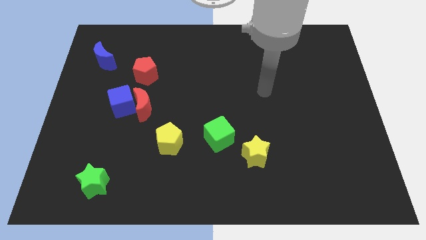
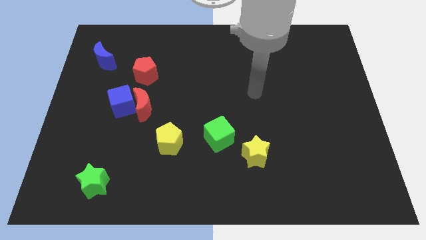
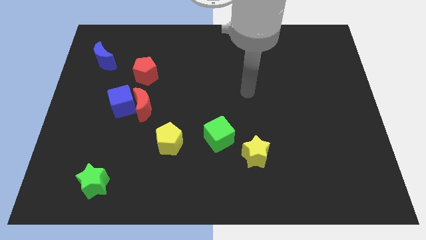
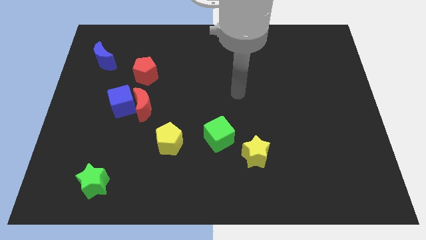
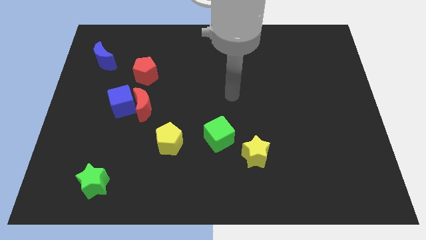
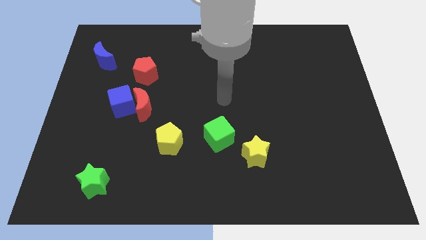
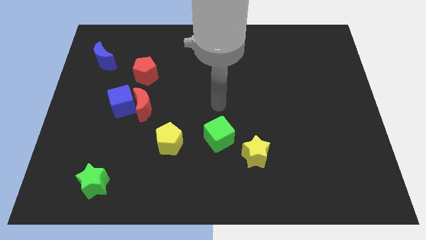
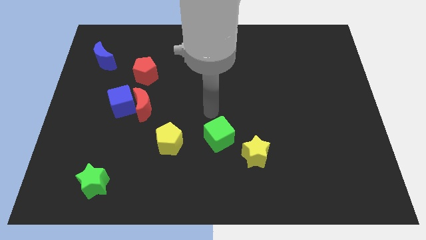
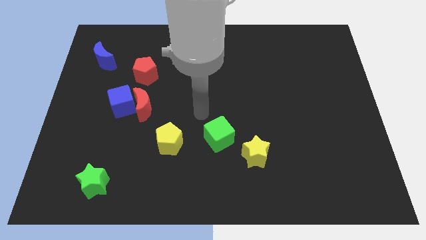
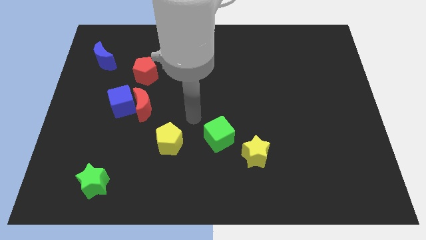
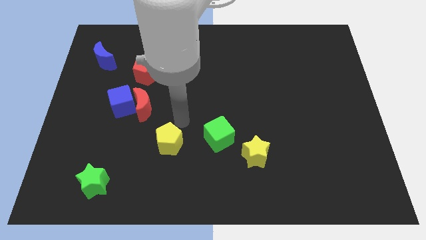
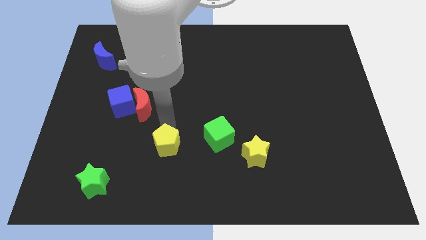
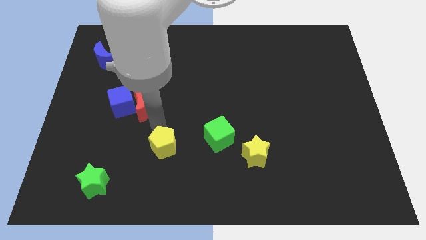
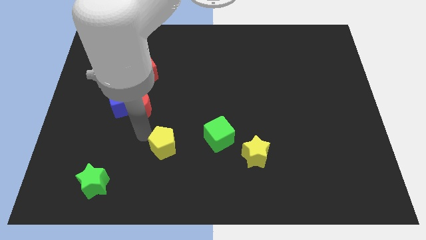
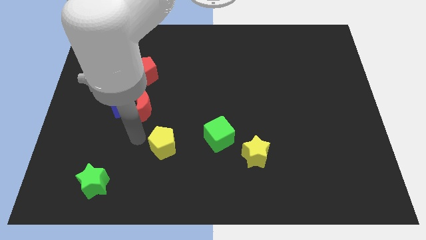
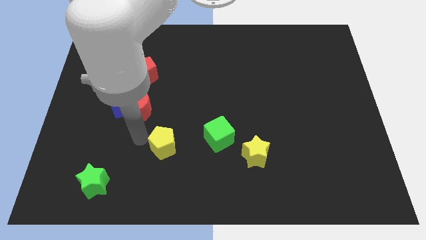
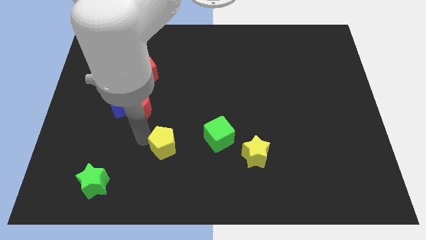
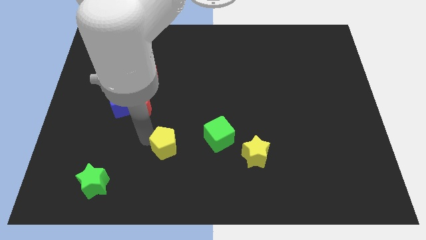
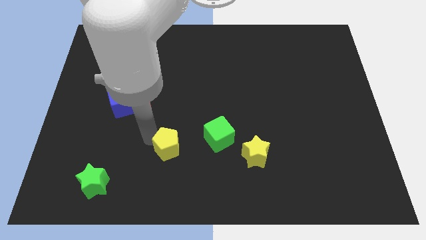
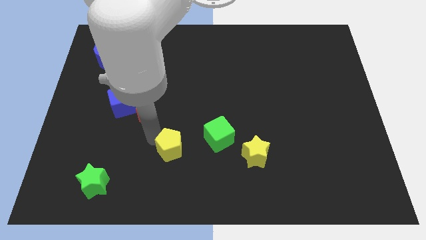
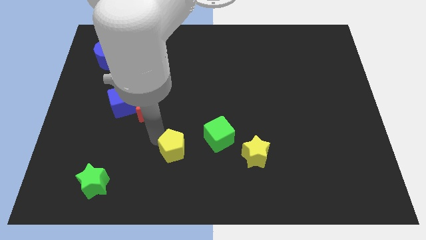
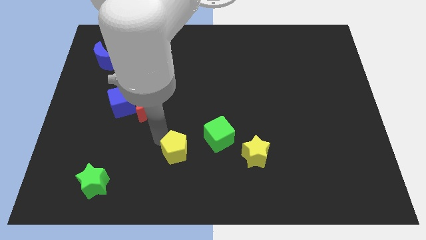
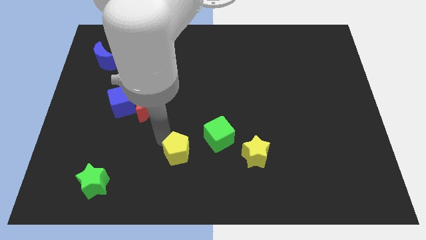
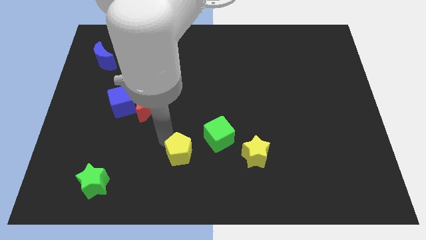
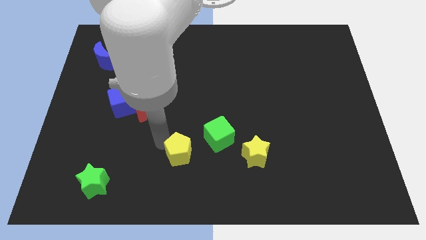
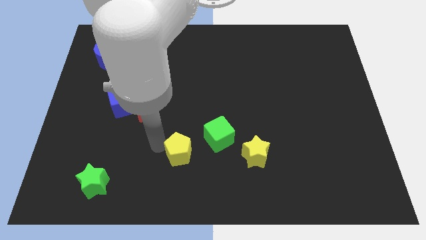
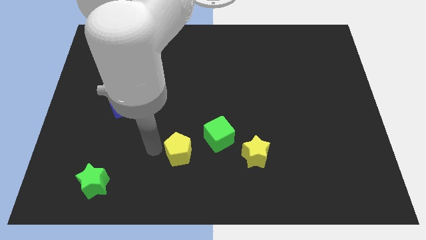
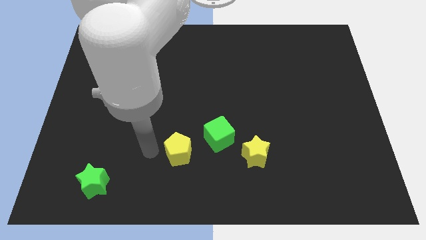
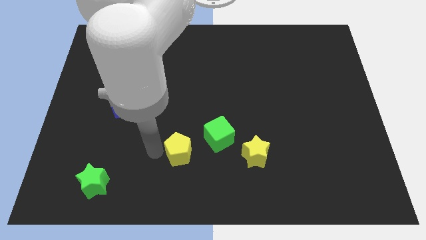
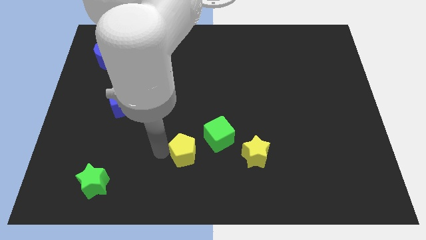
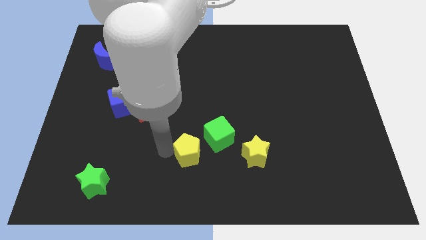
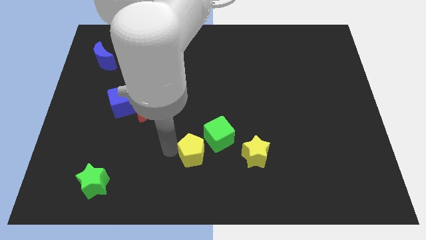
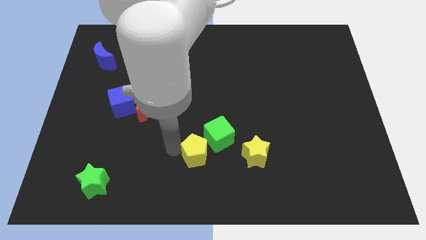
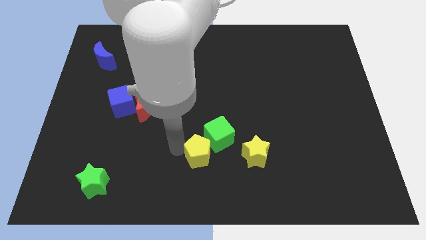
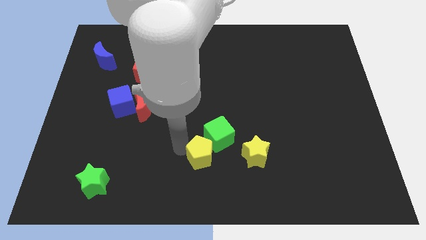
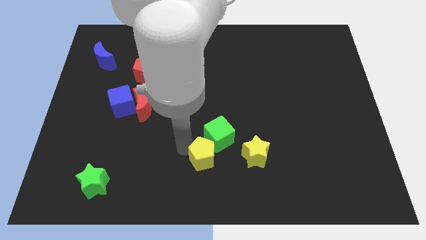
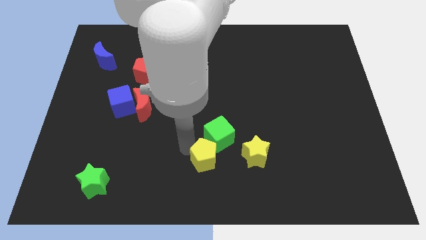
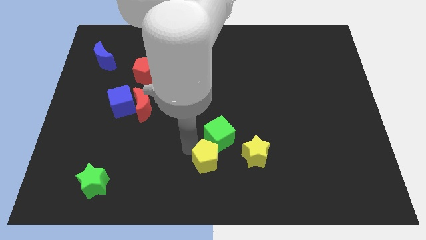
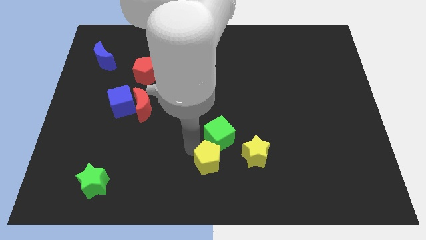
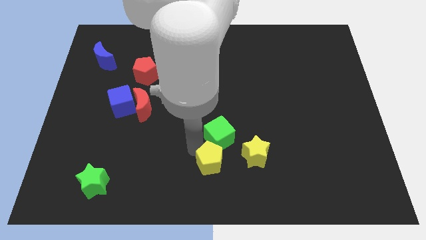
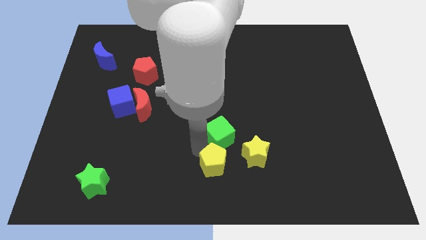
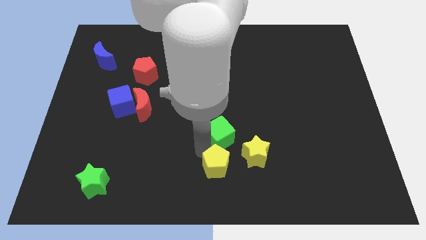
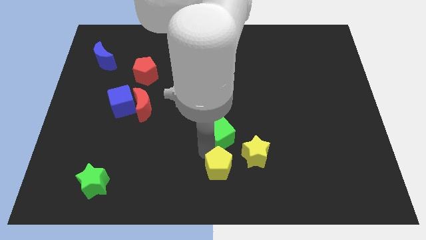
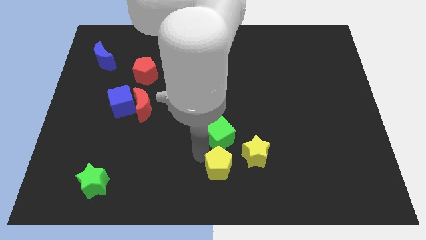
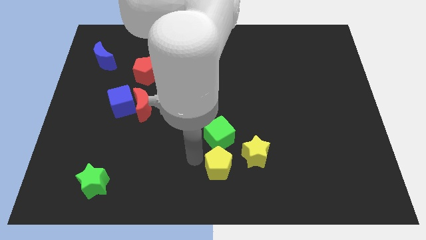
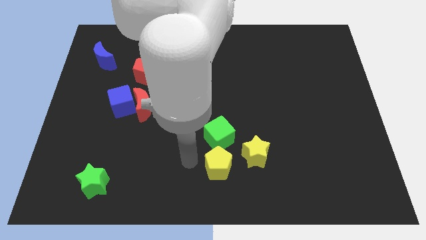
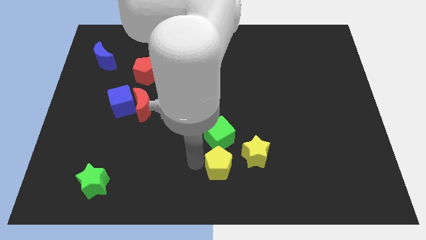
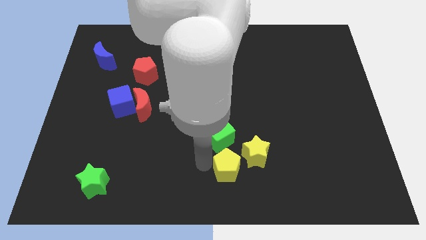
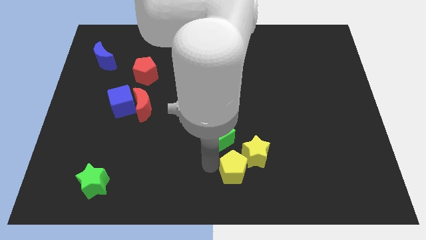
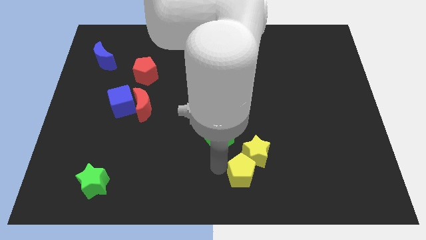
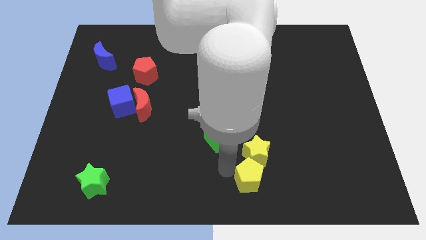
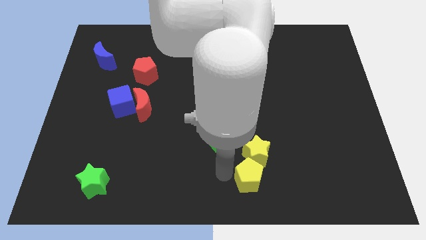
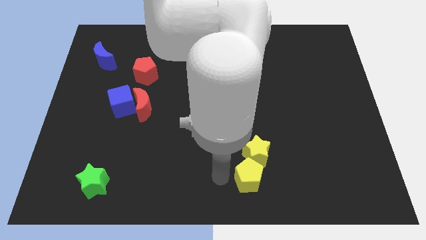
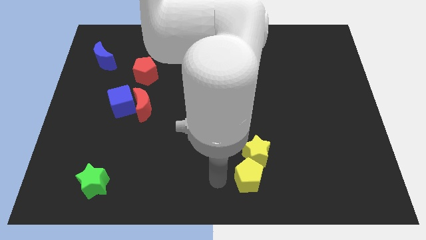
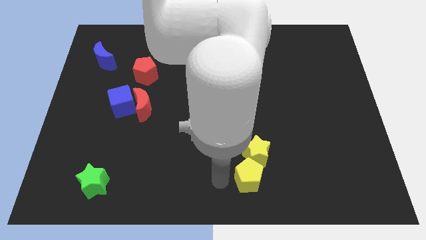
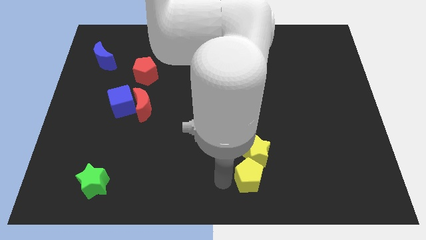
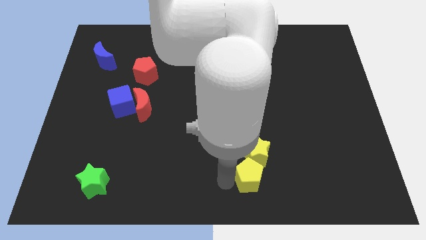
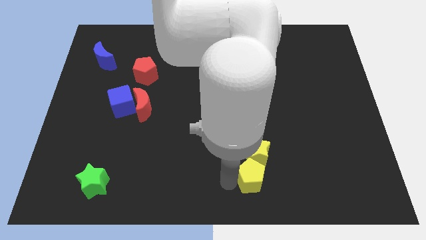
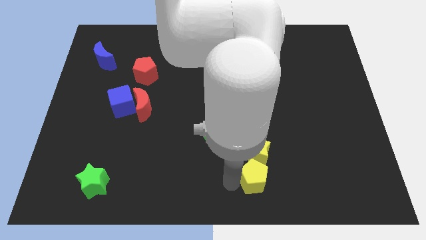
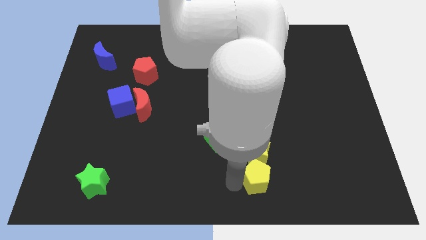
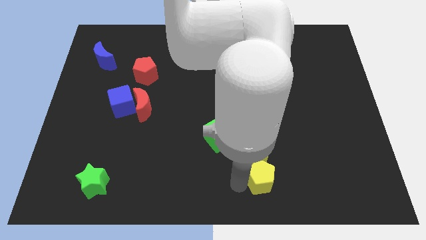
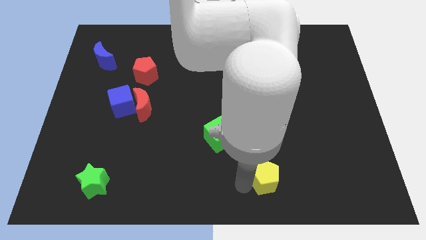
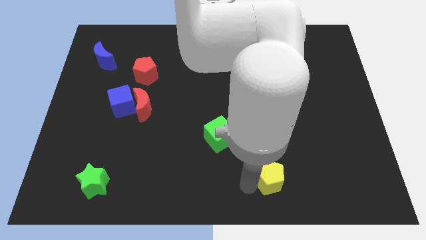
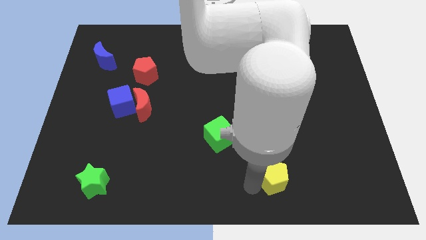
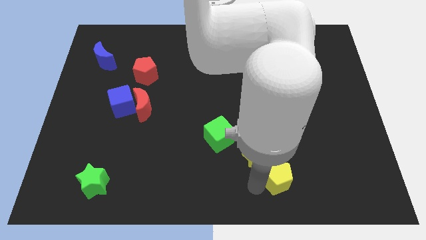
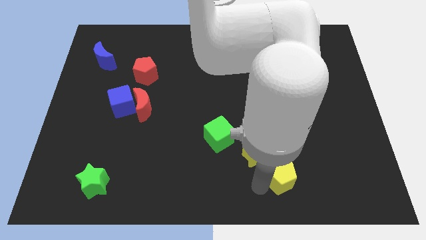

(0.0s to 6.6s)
slide the yellow pentagon right

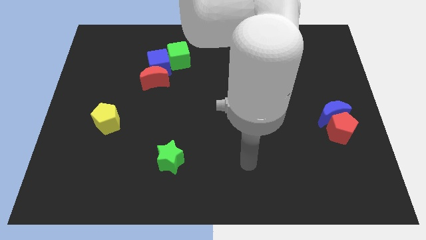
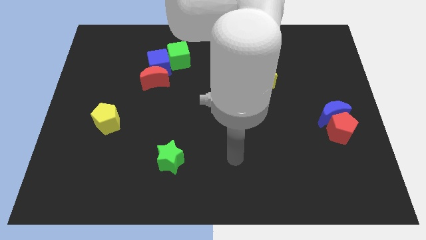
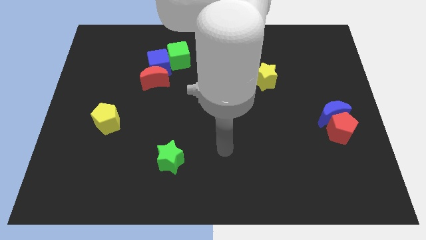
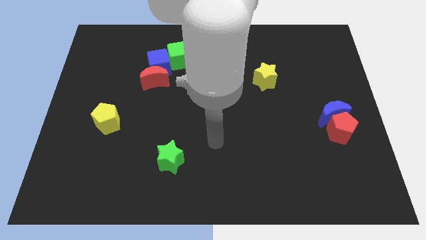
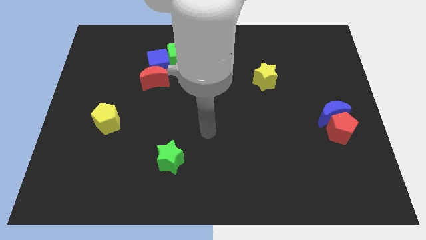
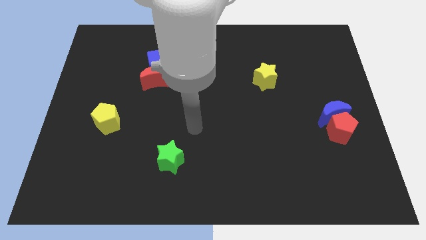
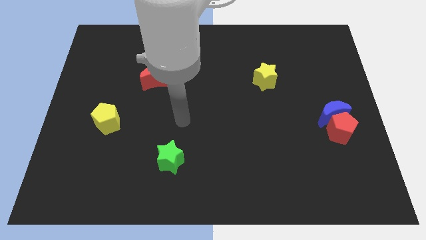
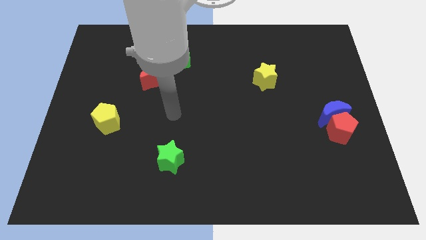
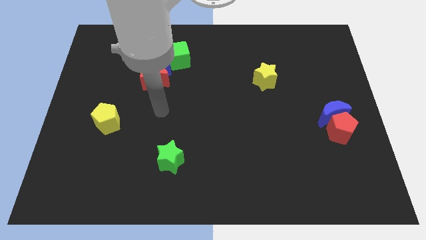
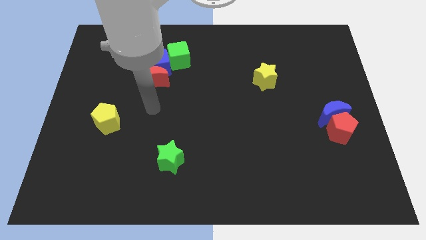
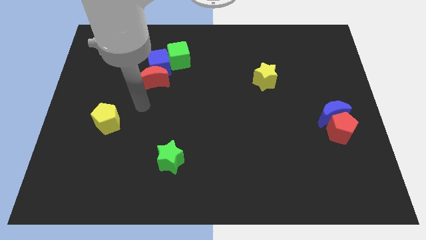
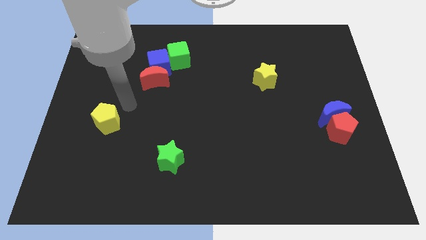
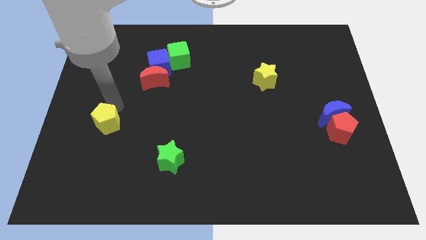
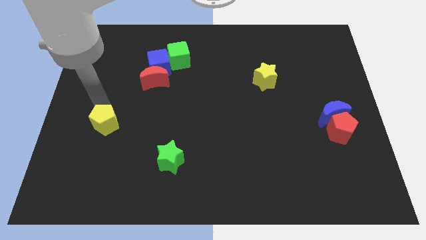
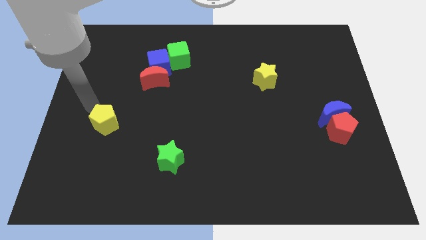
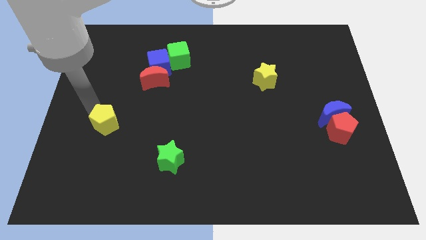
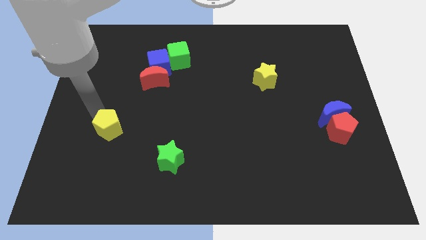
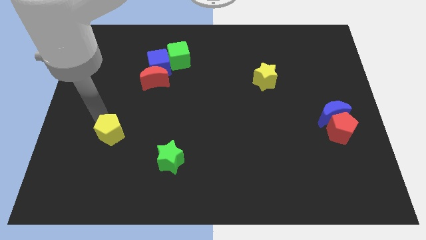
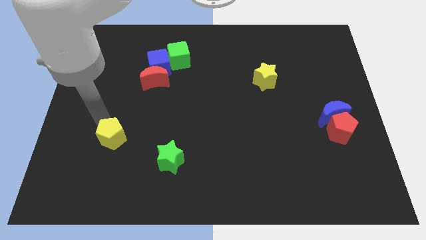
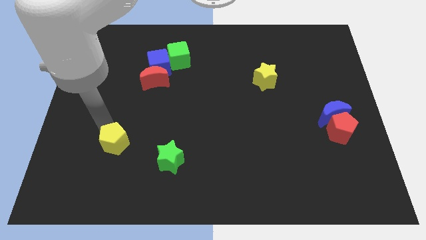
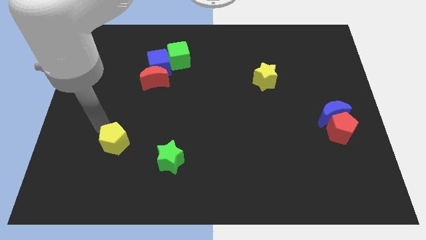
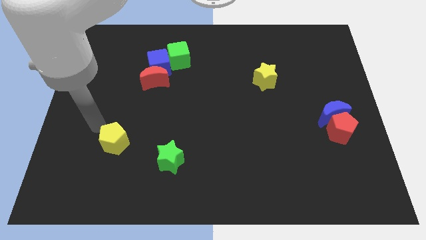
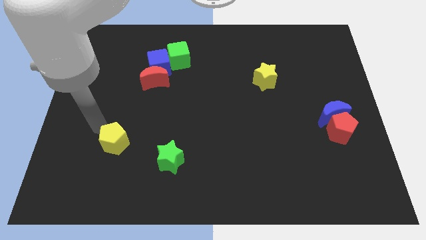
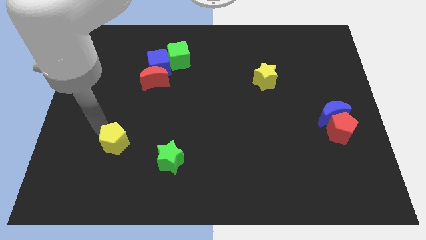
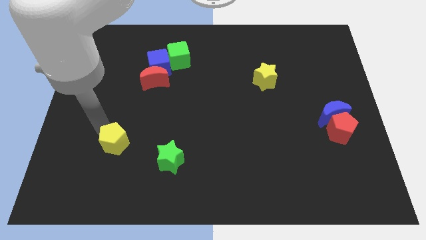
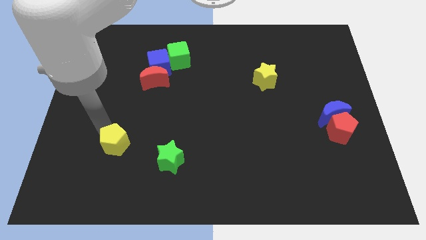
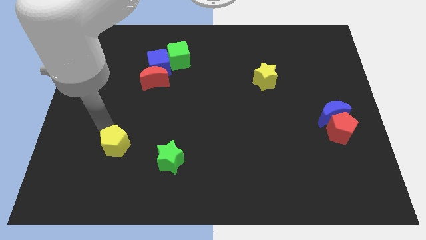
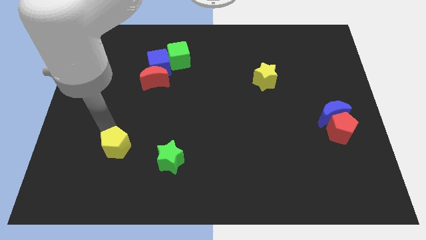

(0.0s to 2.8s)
slightly push the yellow pentagon down and right diagonally
